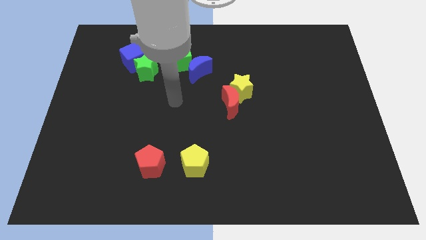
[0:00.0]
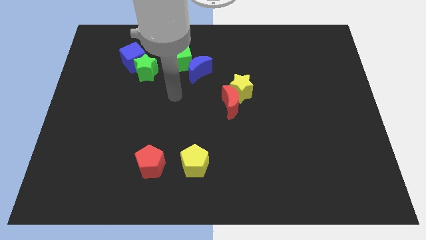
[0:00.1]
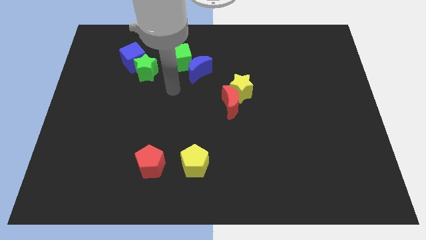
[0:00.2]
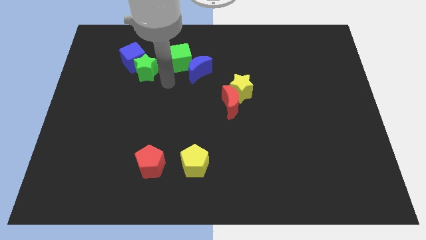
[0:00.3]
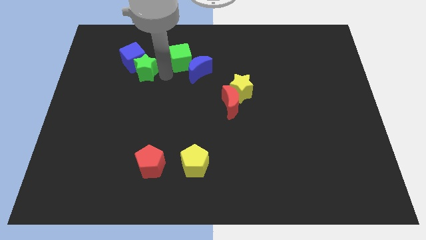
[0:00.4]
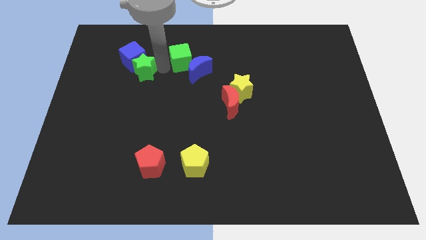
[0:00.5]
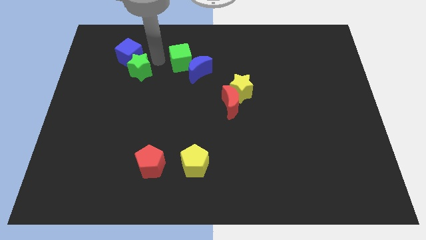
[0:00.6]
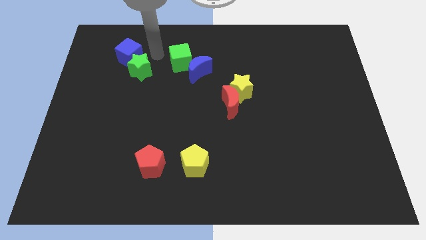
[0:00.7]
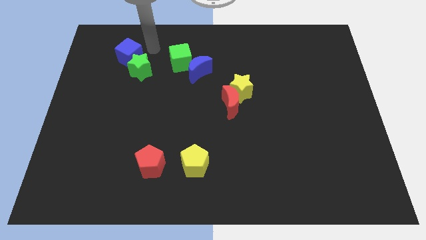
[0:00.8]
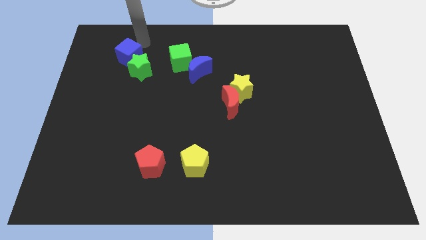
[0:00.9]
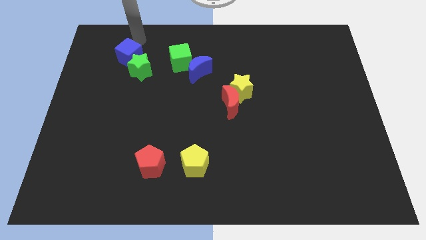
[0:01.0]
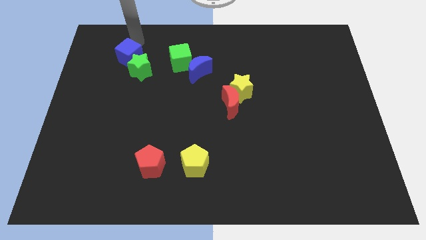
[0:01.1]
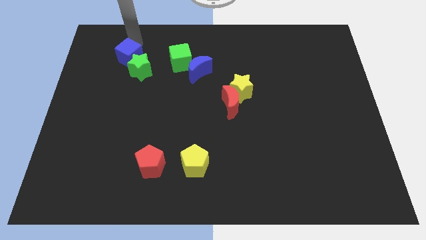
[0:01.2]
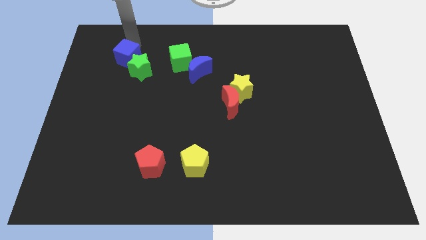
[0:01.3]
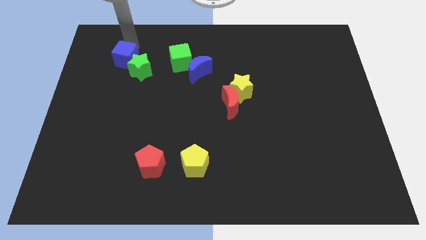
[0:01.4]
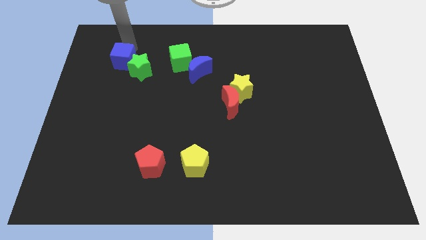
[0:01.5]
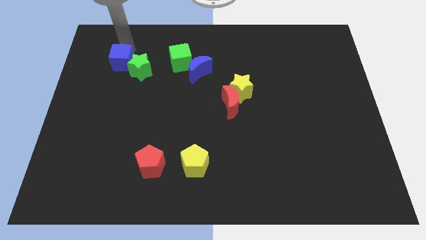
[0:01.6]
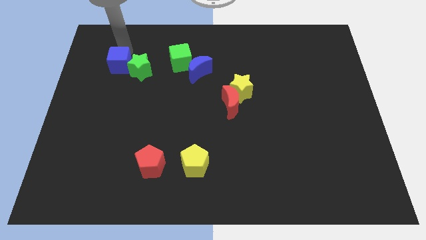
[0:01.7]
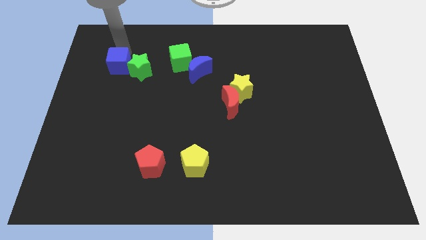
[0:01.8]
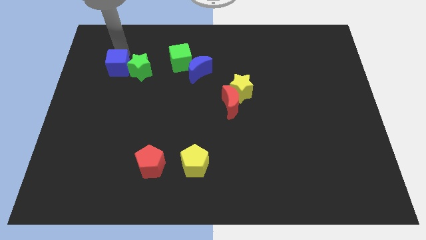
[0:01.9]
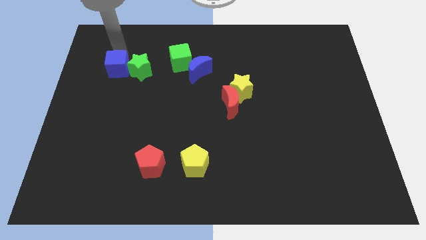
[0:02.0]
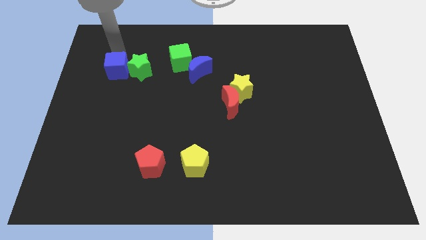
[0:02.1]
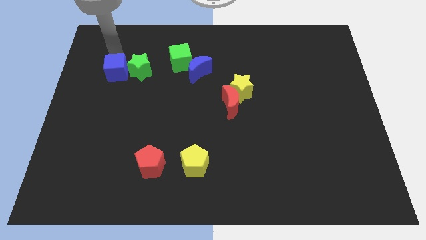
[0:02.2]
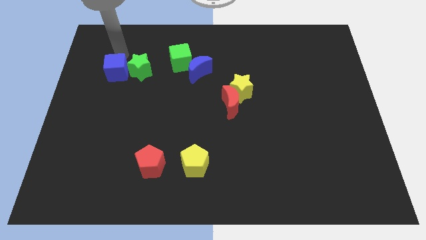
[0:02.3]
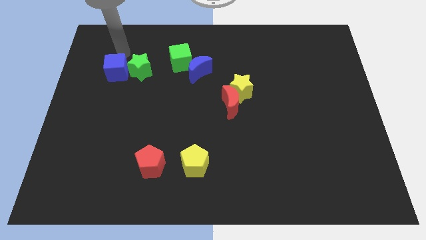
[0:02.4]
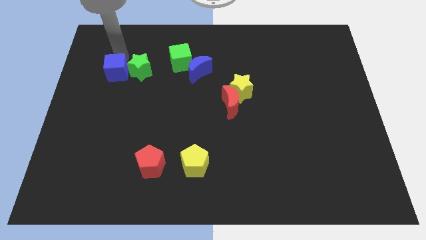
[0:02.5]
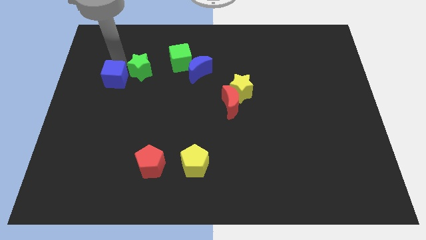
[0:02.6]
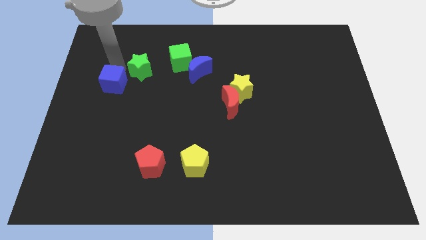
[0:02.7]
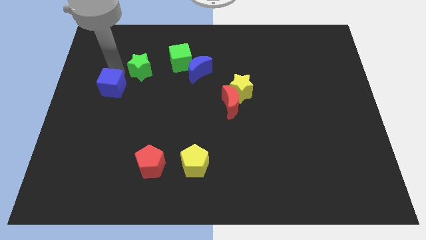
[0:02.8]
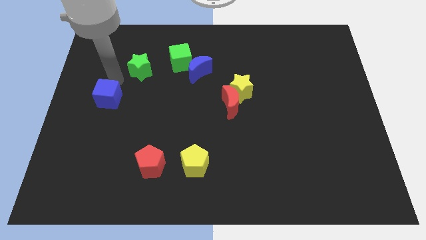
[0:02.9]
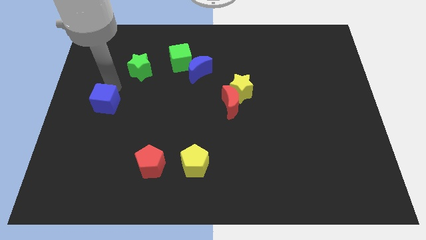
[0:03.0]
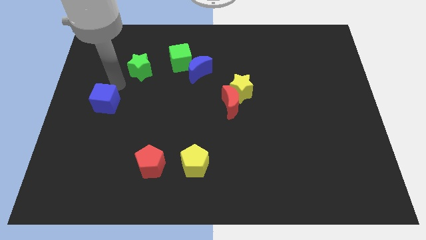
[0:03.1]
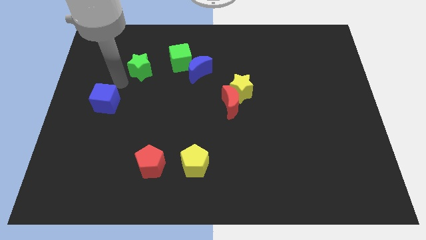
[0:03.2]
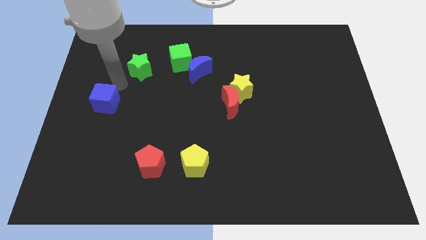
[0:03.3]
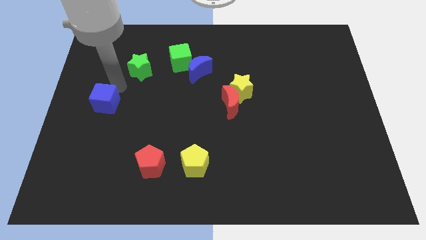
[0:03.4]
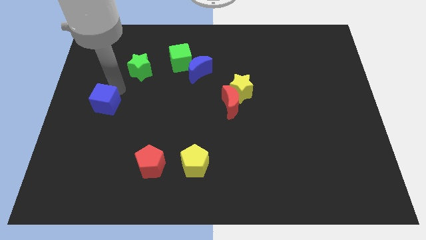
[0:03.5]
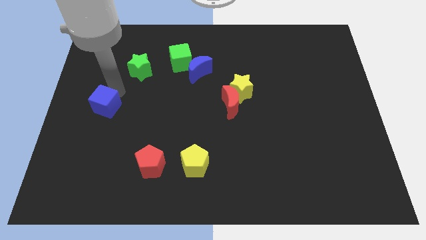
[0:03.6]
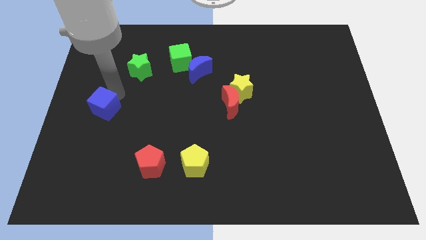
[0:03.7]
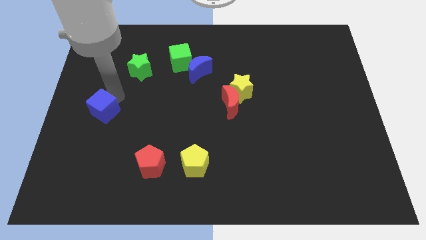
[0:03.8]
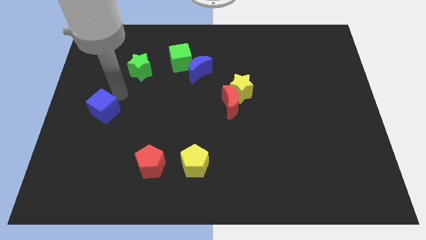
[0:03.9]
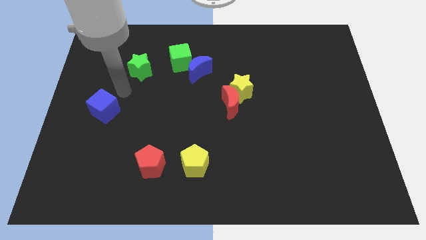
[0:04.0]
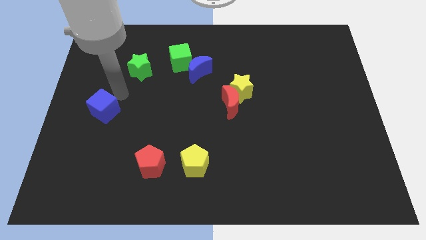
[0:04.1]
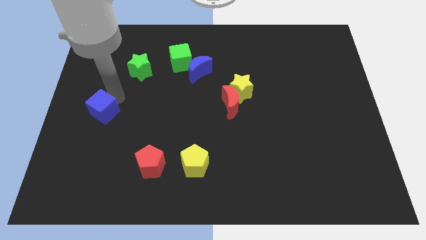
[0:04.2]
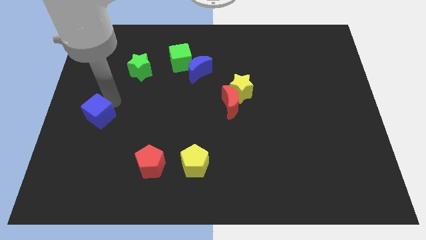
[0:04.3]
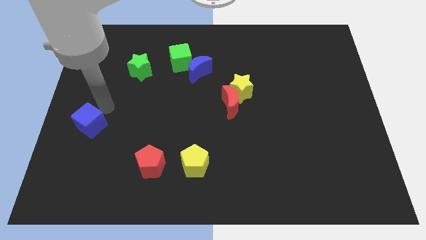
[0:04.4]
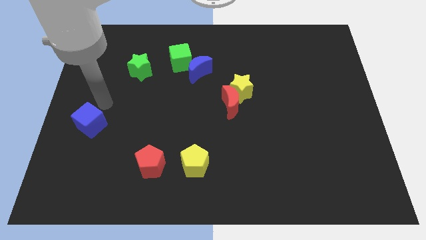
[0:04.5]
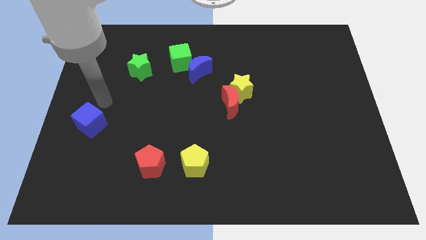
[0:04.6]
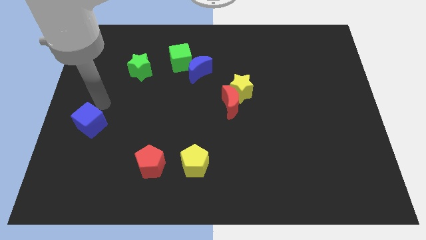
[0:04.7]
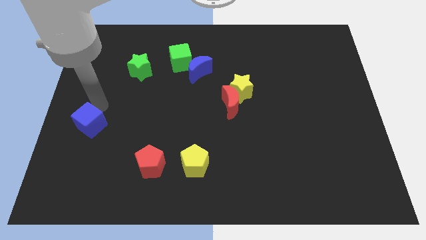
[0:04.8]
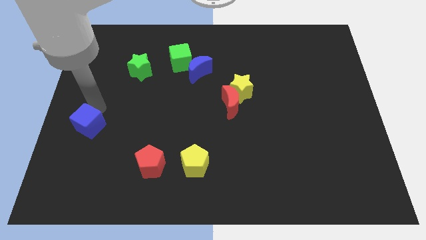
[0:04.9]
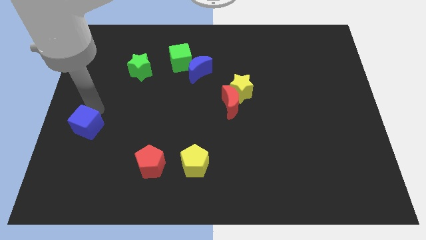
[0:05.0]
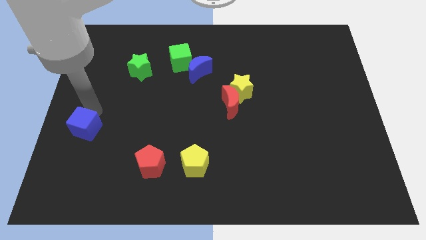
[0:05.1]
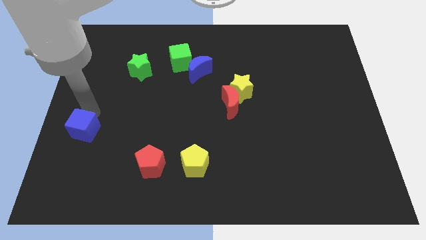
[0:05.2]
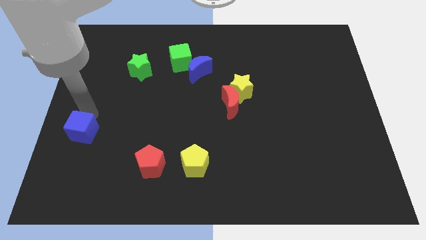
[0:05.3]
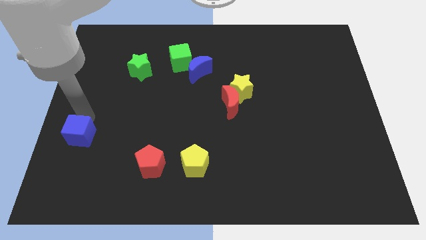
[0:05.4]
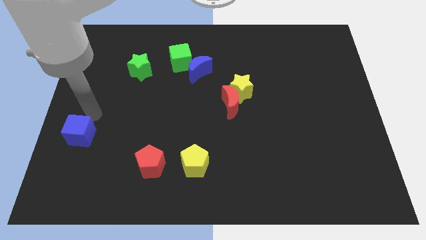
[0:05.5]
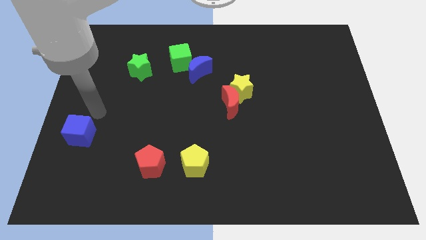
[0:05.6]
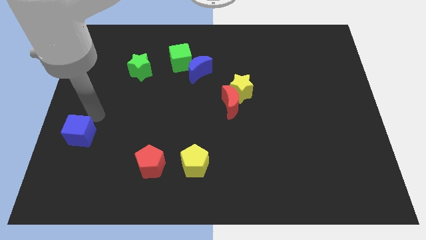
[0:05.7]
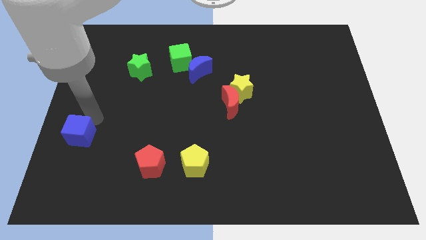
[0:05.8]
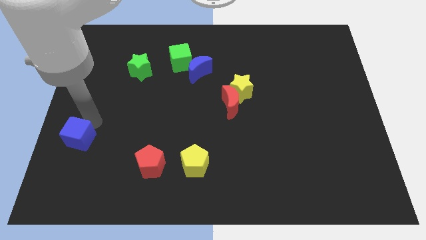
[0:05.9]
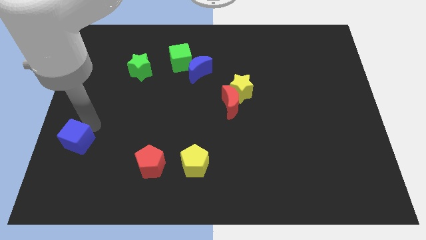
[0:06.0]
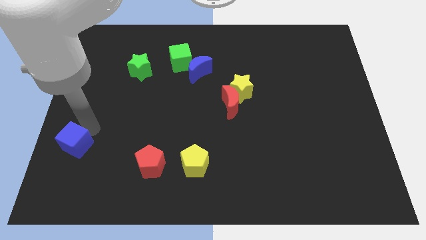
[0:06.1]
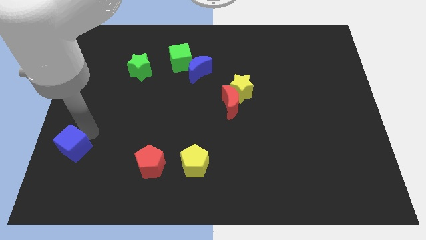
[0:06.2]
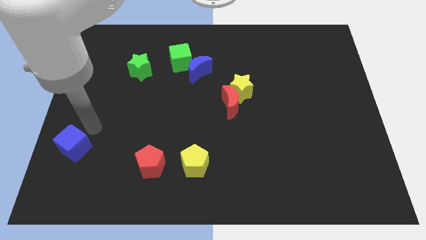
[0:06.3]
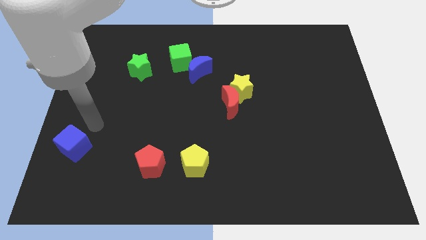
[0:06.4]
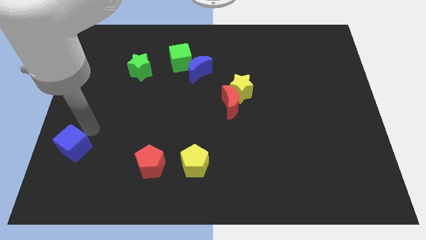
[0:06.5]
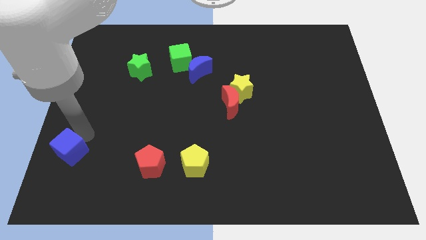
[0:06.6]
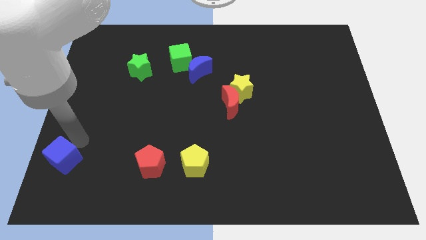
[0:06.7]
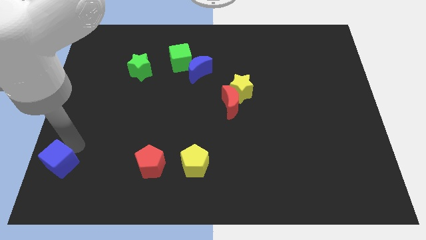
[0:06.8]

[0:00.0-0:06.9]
slide the blue cube to the lower left corner
